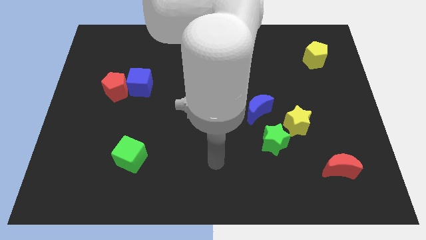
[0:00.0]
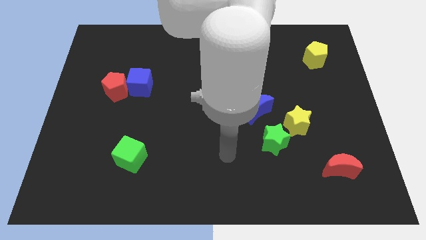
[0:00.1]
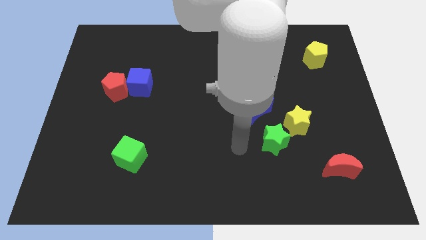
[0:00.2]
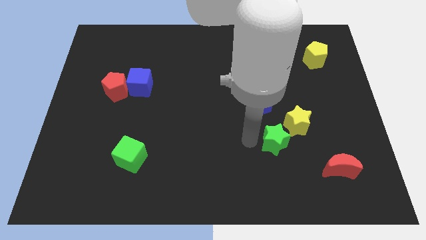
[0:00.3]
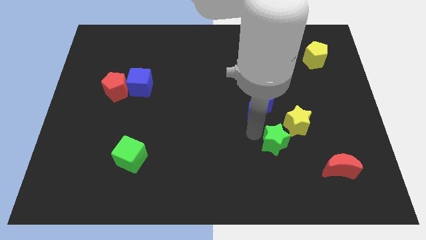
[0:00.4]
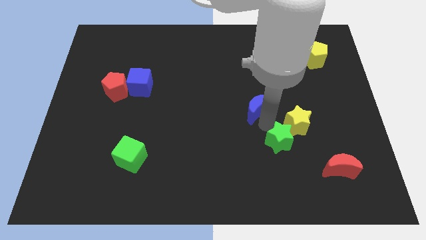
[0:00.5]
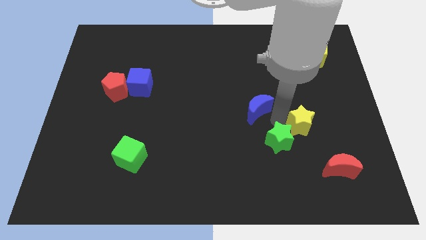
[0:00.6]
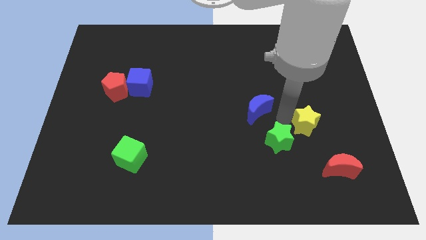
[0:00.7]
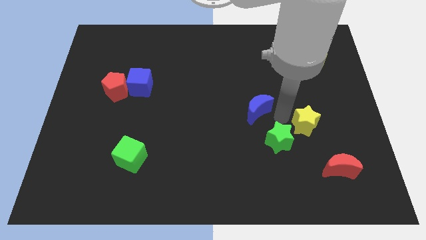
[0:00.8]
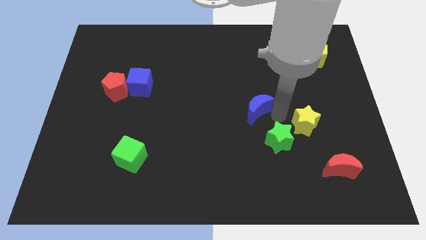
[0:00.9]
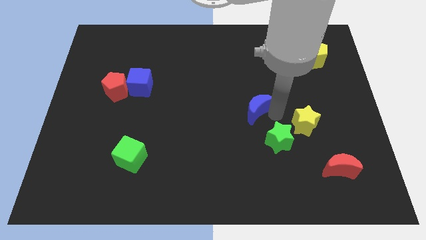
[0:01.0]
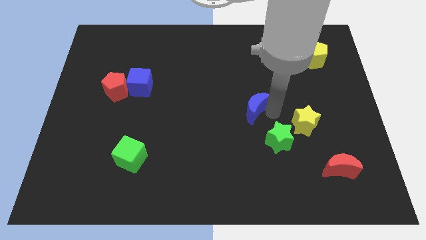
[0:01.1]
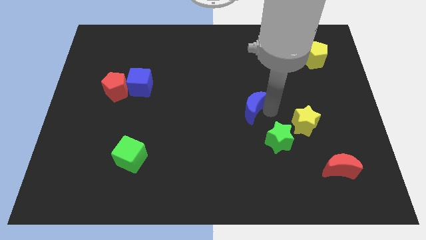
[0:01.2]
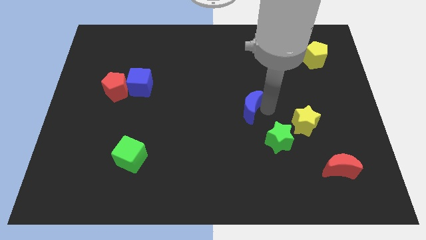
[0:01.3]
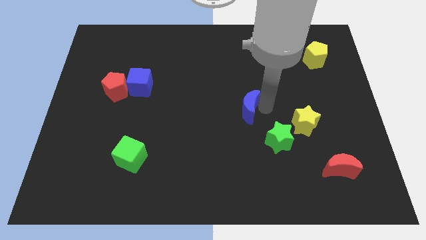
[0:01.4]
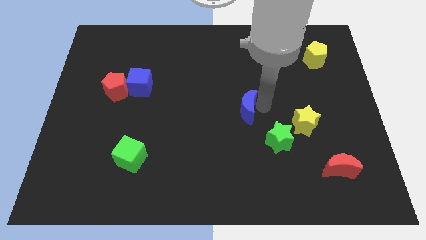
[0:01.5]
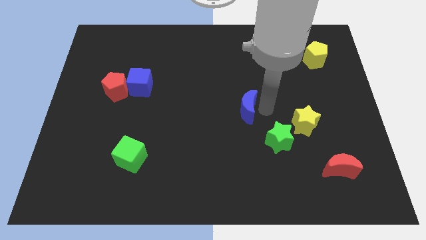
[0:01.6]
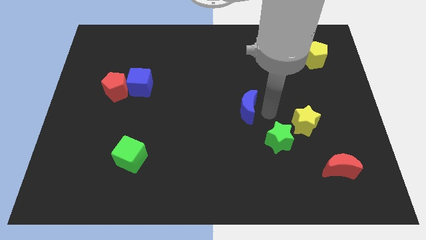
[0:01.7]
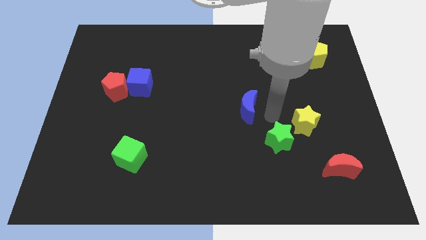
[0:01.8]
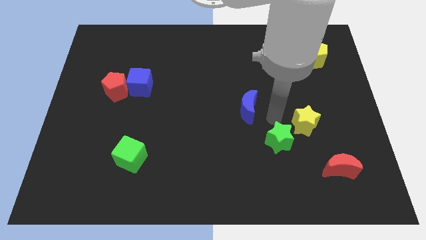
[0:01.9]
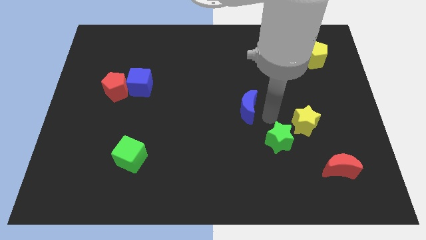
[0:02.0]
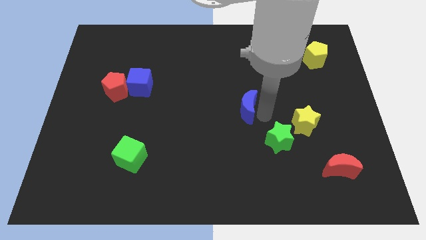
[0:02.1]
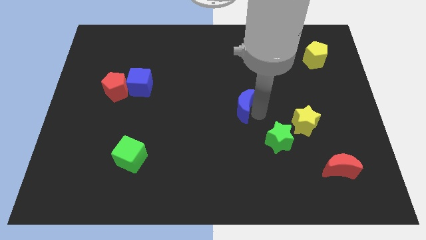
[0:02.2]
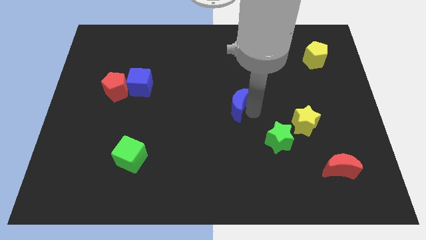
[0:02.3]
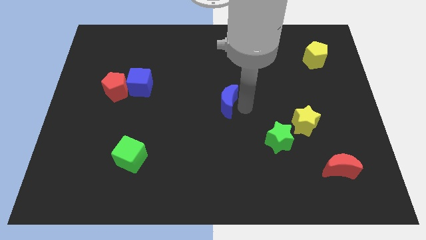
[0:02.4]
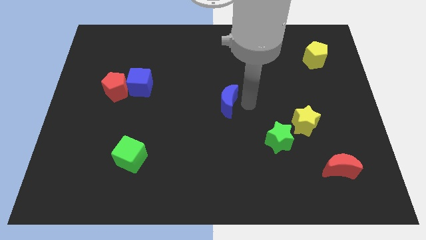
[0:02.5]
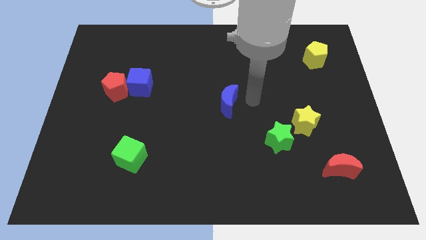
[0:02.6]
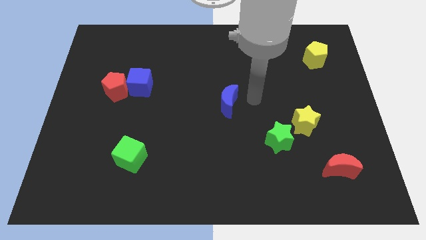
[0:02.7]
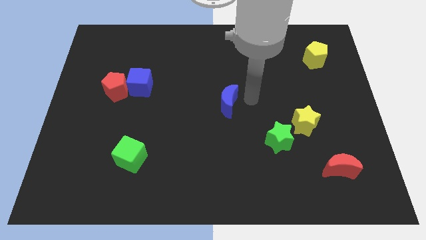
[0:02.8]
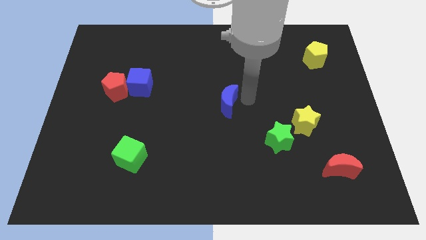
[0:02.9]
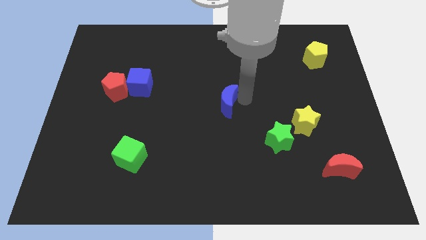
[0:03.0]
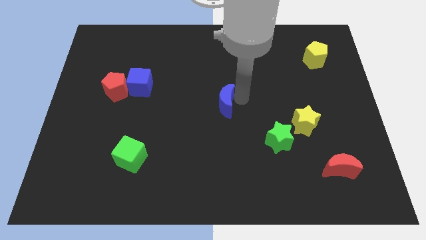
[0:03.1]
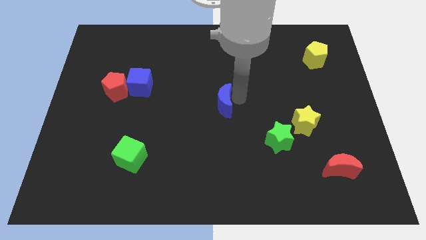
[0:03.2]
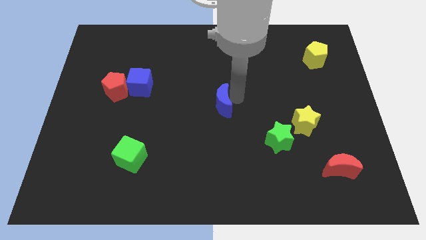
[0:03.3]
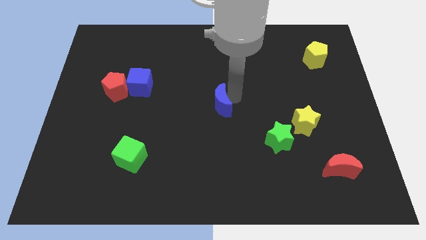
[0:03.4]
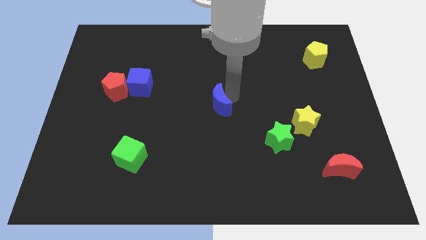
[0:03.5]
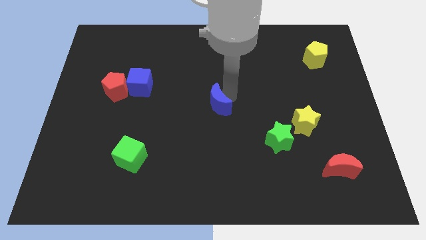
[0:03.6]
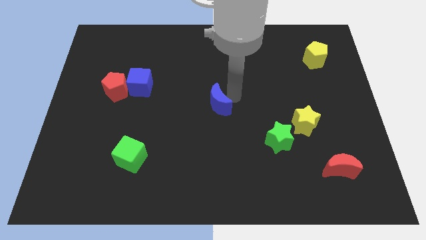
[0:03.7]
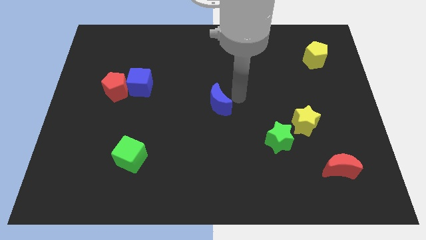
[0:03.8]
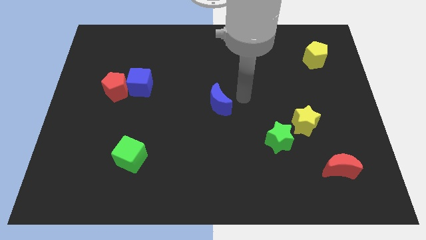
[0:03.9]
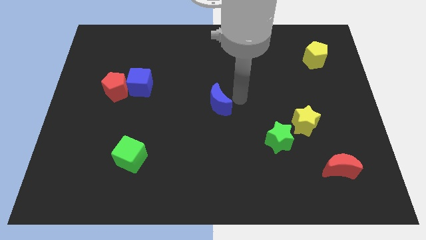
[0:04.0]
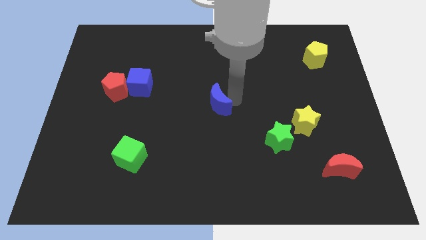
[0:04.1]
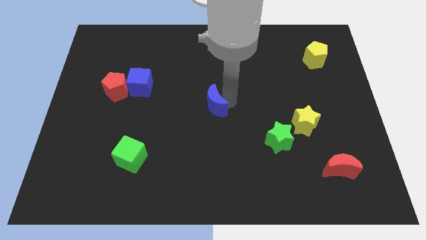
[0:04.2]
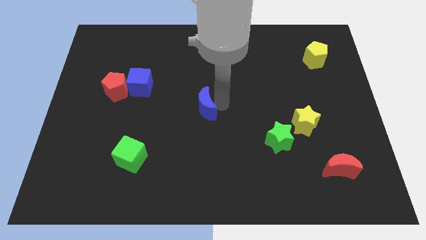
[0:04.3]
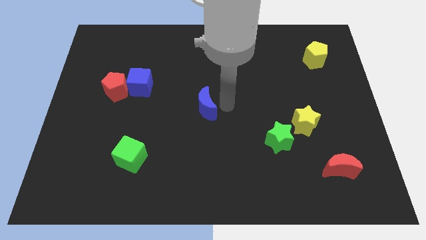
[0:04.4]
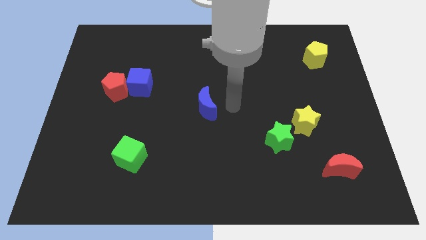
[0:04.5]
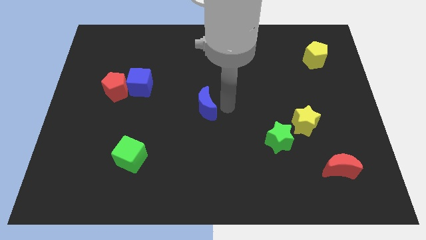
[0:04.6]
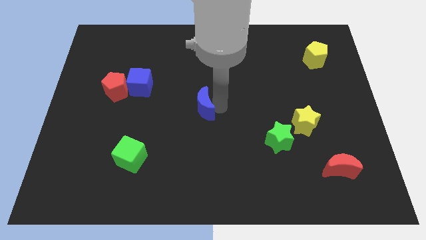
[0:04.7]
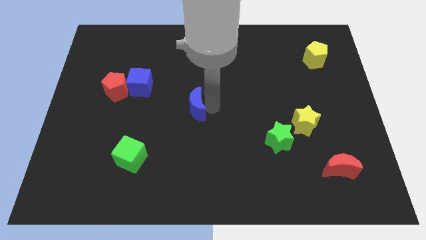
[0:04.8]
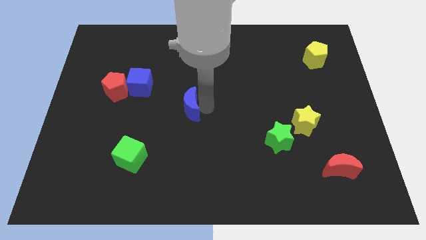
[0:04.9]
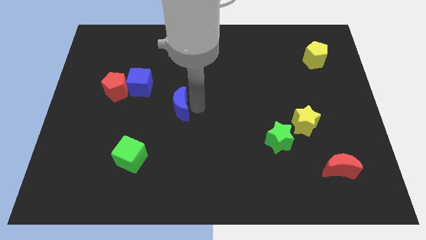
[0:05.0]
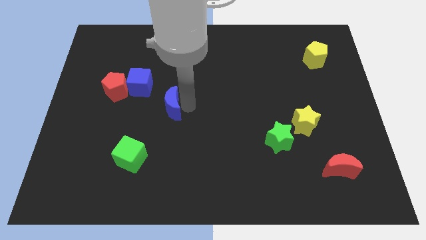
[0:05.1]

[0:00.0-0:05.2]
push the blue moon to the left

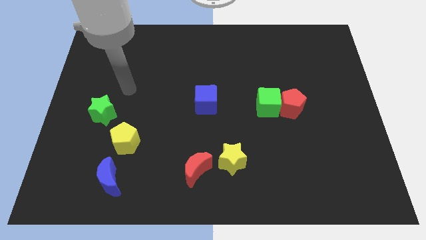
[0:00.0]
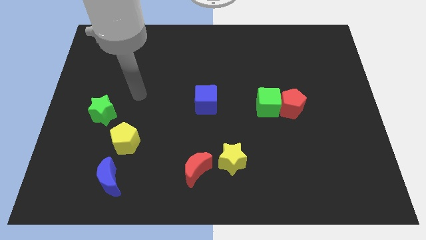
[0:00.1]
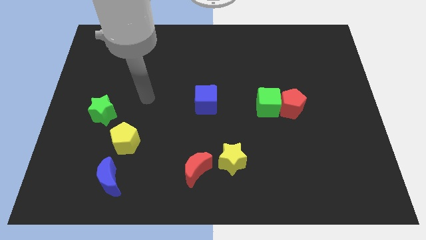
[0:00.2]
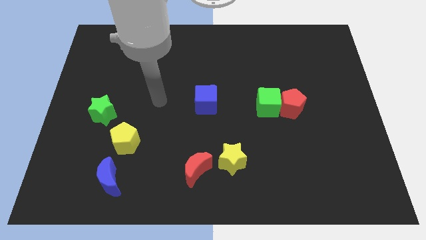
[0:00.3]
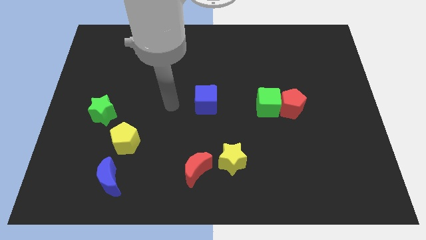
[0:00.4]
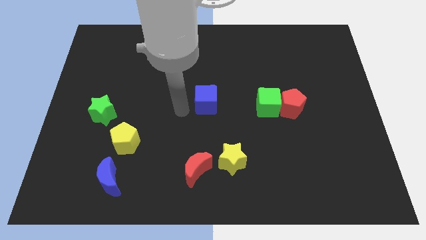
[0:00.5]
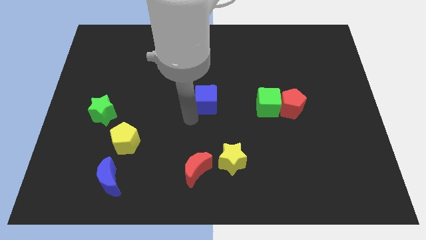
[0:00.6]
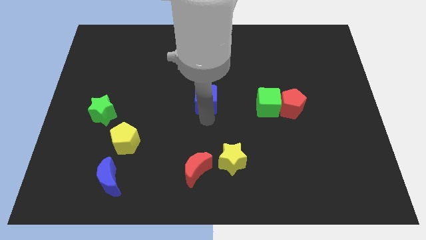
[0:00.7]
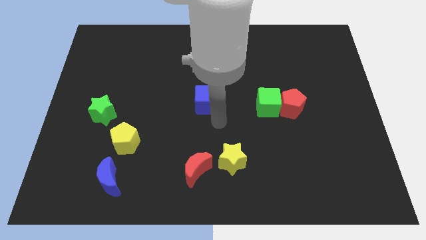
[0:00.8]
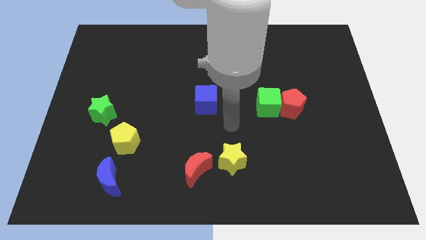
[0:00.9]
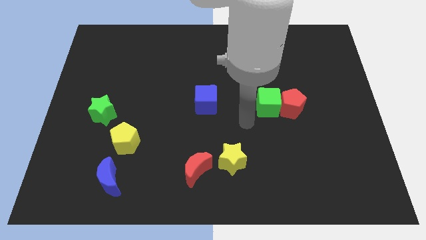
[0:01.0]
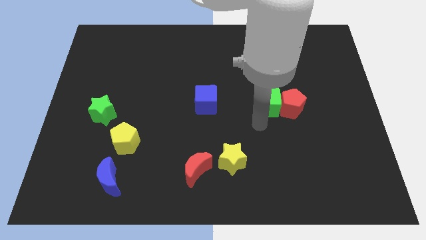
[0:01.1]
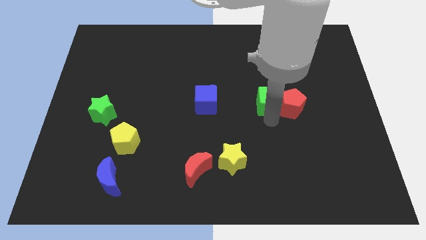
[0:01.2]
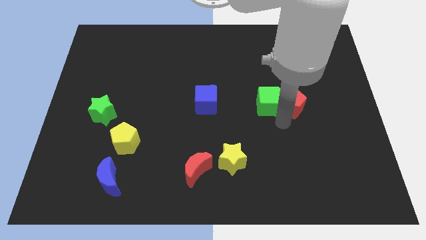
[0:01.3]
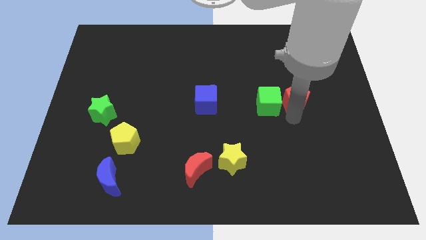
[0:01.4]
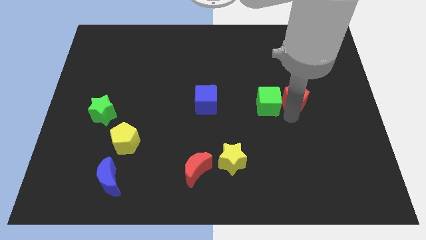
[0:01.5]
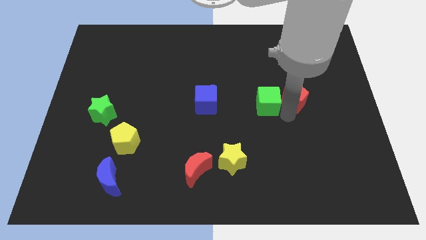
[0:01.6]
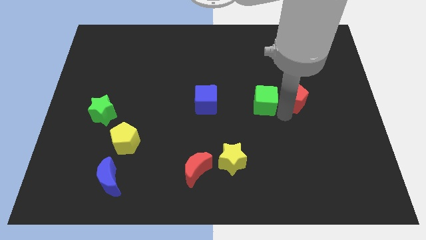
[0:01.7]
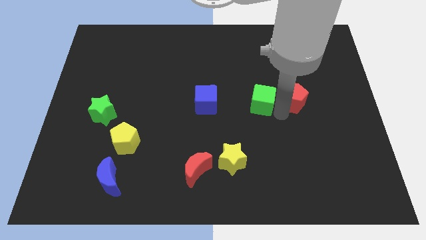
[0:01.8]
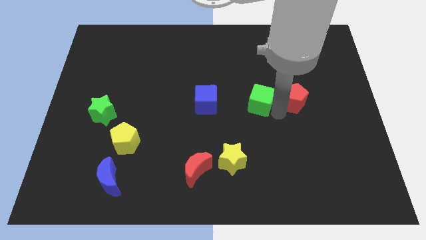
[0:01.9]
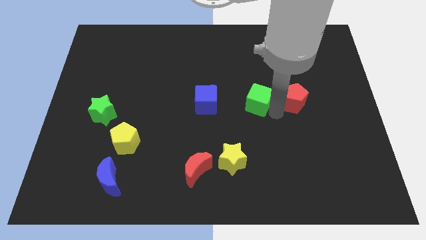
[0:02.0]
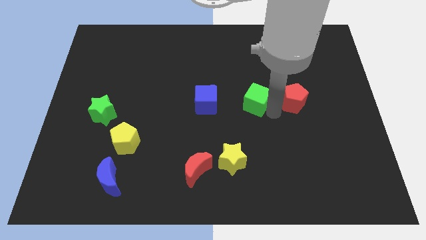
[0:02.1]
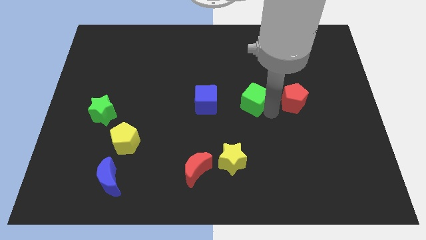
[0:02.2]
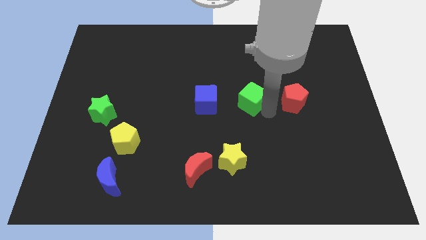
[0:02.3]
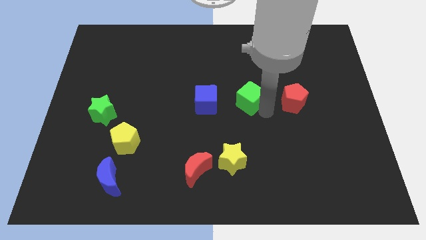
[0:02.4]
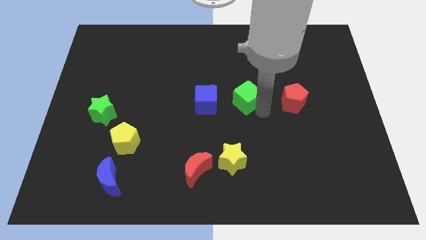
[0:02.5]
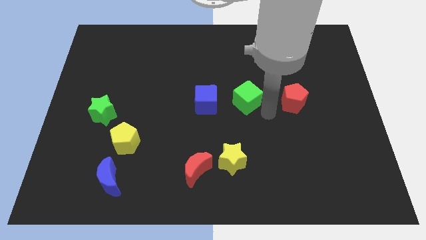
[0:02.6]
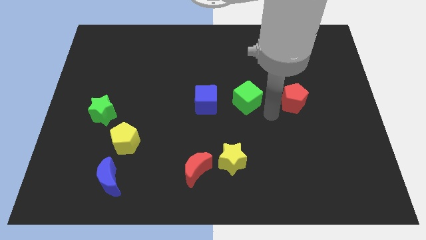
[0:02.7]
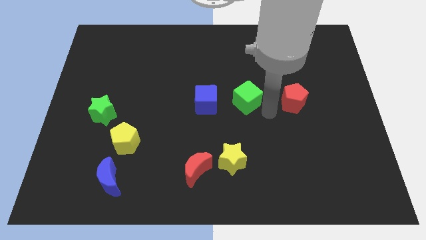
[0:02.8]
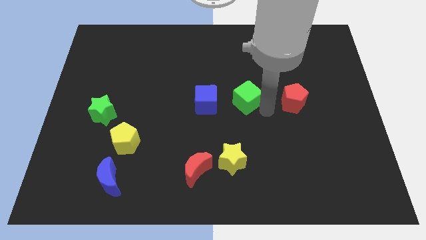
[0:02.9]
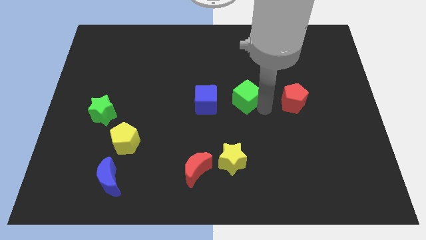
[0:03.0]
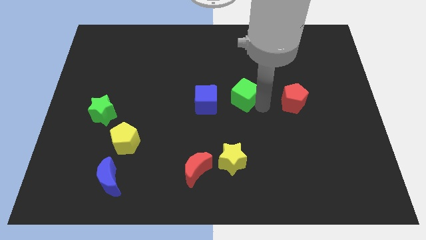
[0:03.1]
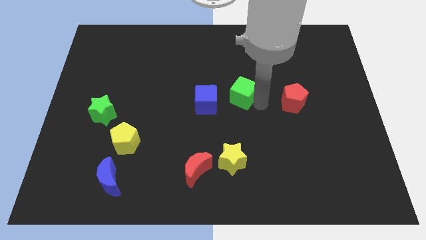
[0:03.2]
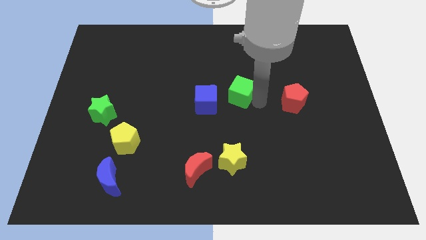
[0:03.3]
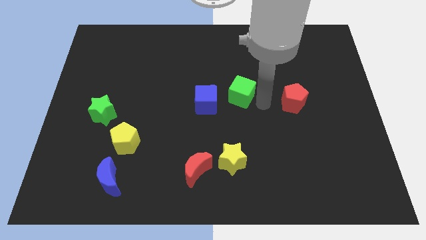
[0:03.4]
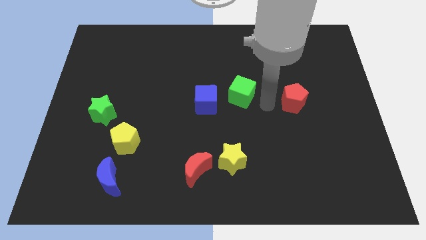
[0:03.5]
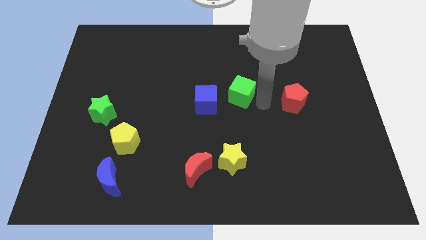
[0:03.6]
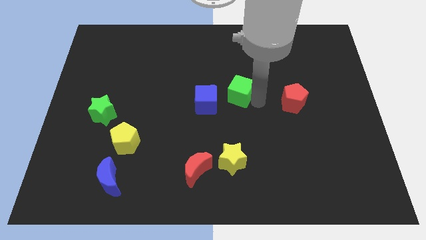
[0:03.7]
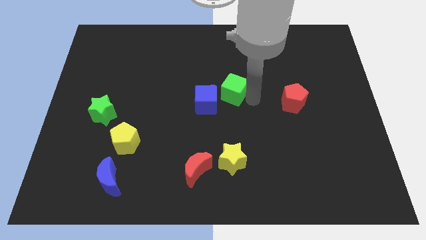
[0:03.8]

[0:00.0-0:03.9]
slightly push the green cube to the left
